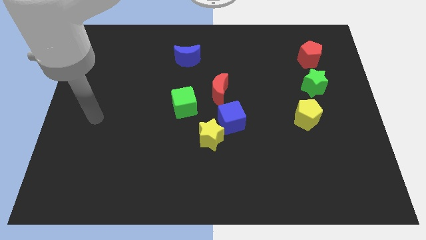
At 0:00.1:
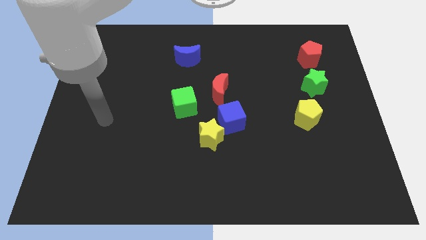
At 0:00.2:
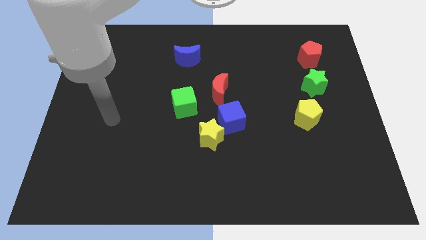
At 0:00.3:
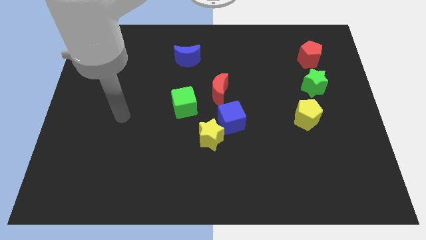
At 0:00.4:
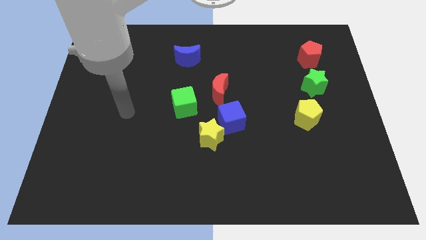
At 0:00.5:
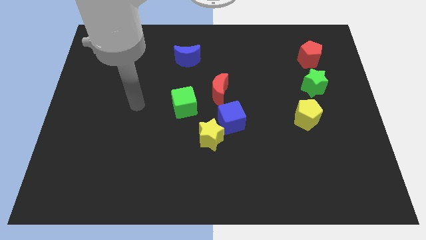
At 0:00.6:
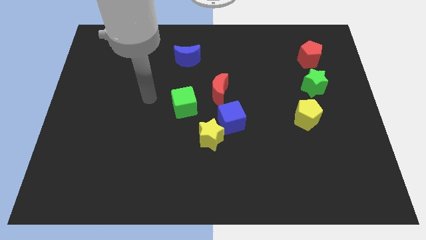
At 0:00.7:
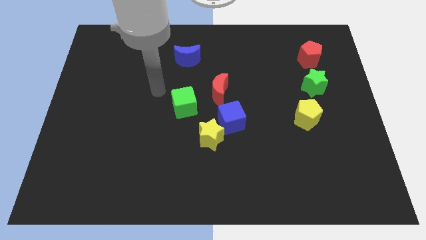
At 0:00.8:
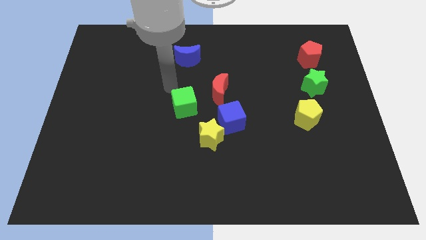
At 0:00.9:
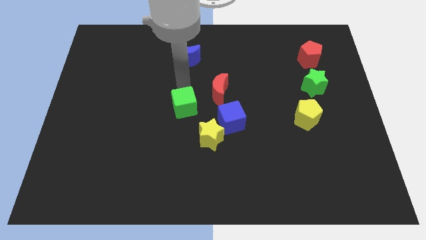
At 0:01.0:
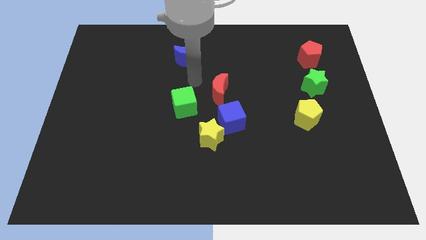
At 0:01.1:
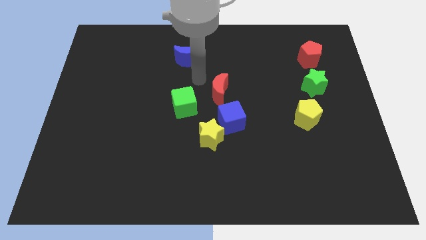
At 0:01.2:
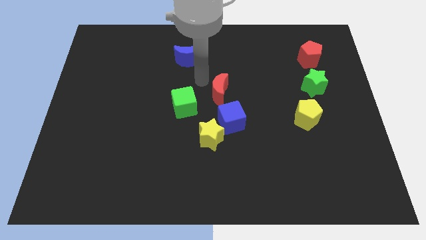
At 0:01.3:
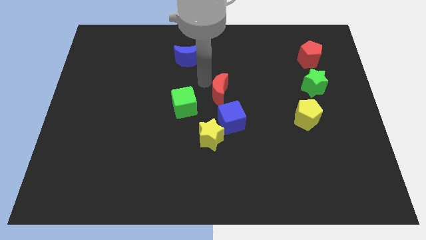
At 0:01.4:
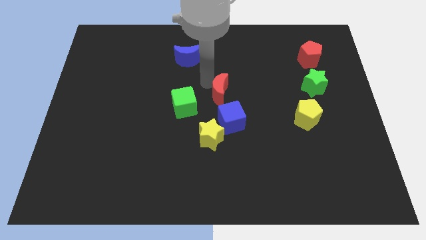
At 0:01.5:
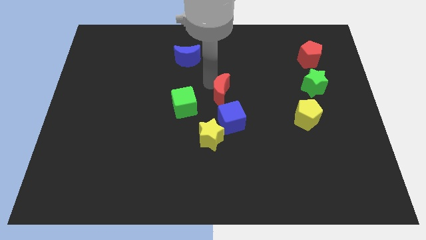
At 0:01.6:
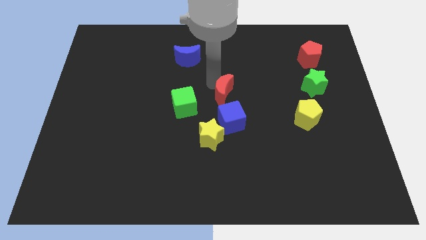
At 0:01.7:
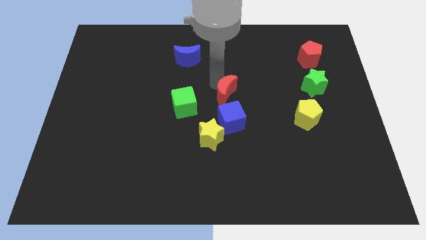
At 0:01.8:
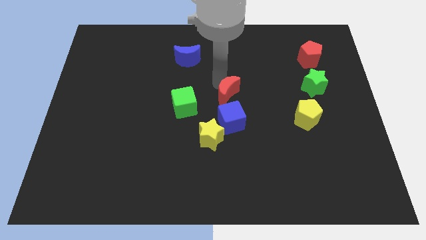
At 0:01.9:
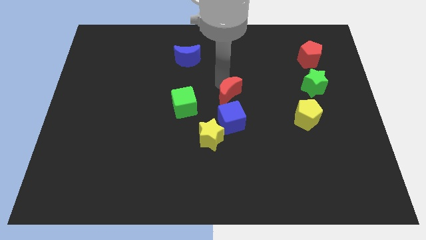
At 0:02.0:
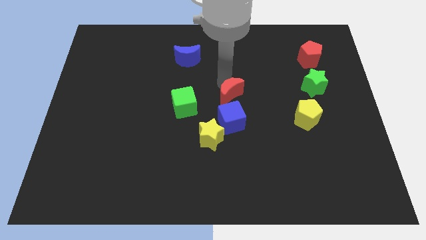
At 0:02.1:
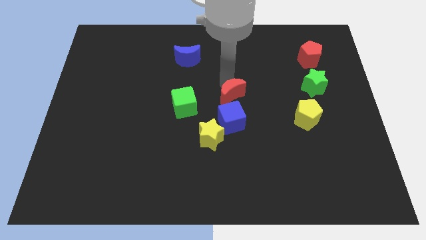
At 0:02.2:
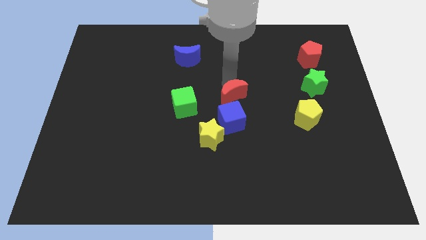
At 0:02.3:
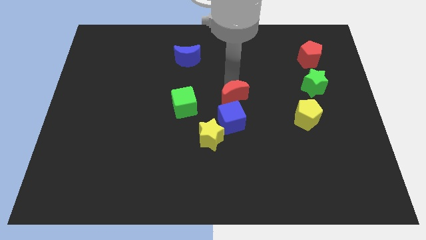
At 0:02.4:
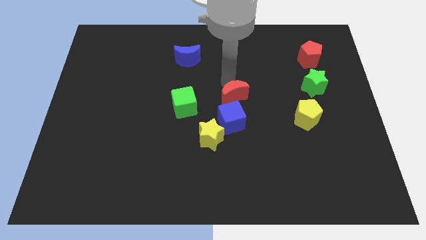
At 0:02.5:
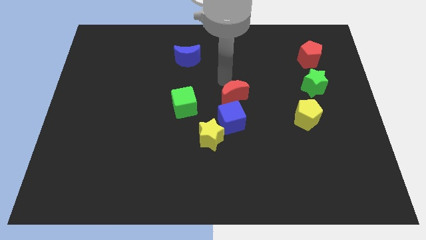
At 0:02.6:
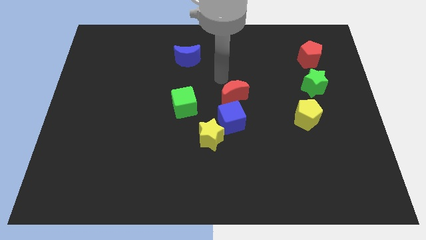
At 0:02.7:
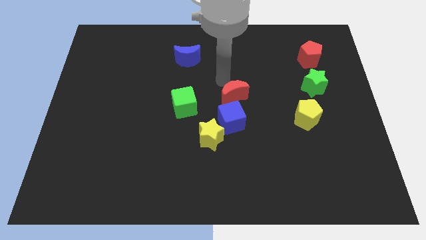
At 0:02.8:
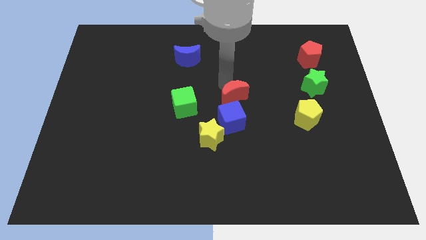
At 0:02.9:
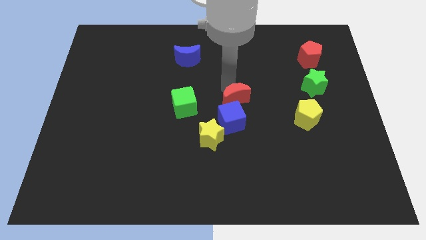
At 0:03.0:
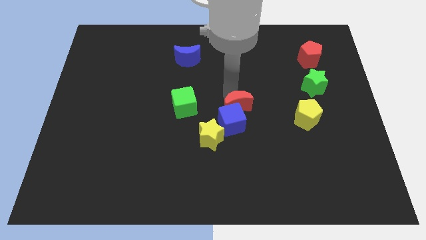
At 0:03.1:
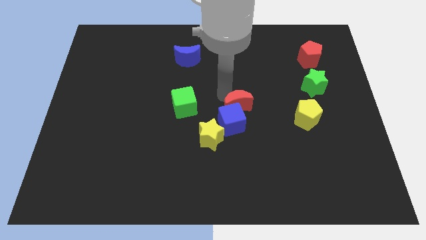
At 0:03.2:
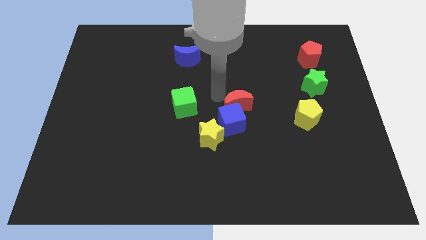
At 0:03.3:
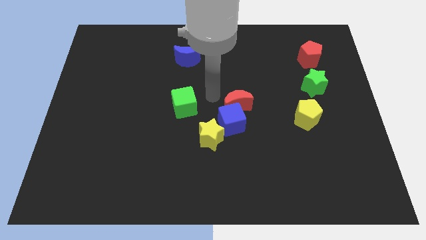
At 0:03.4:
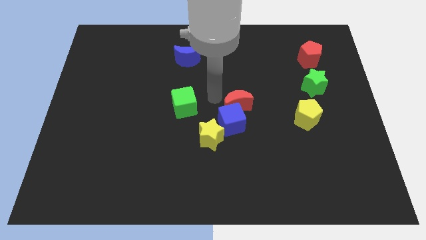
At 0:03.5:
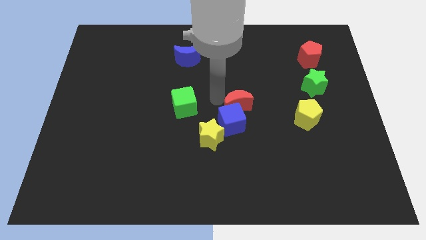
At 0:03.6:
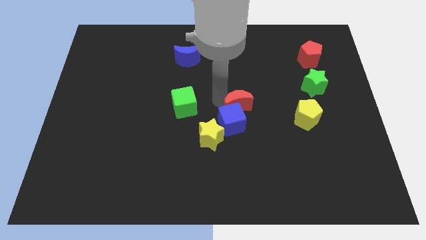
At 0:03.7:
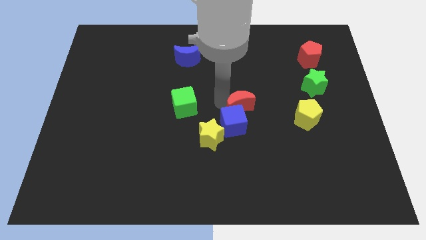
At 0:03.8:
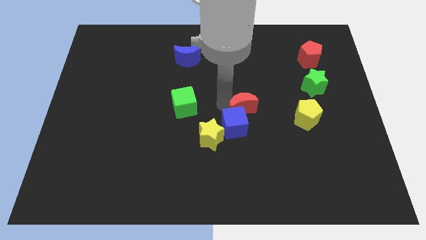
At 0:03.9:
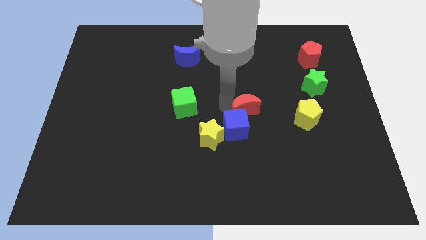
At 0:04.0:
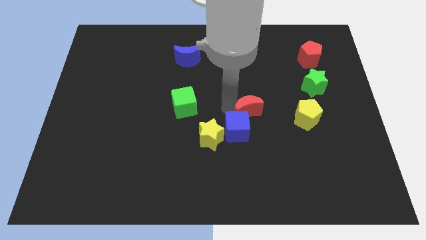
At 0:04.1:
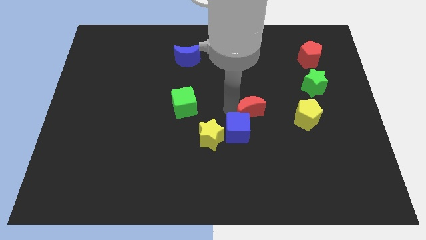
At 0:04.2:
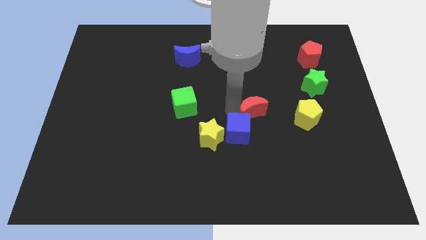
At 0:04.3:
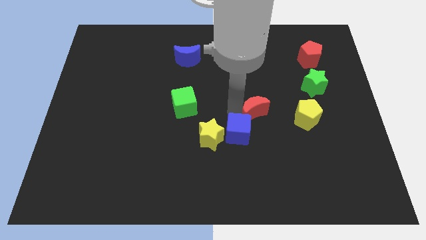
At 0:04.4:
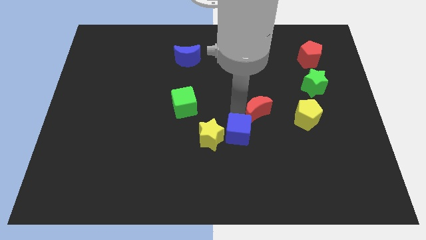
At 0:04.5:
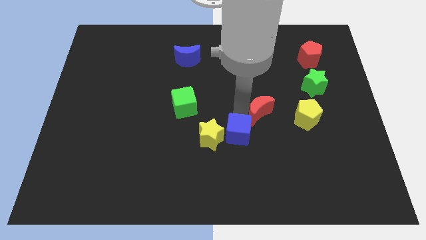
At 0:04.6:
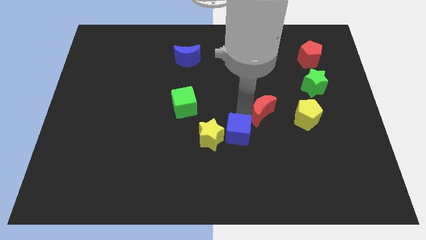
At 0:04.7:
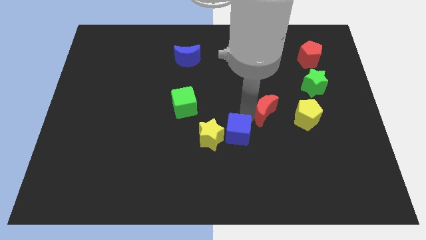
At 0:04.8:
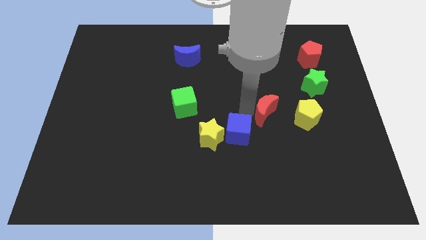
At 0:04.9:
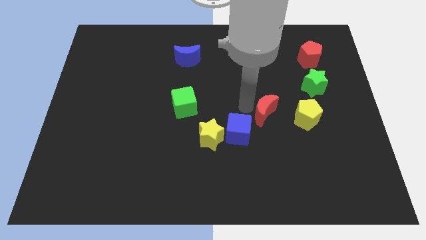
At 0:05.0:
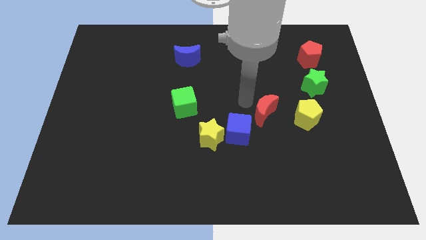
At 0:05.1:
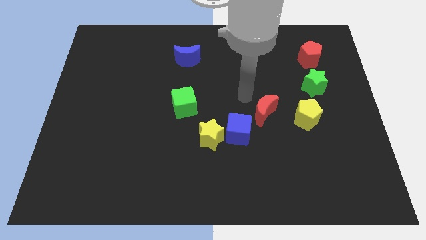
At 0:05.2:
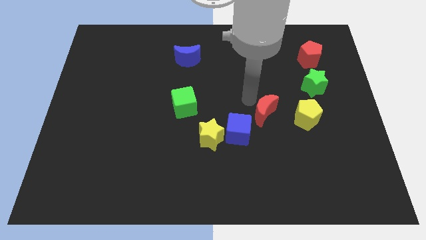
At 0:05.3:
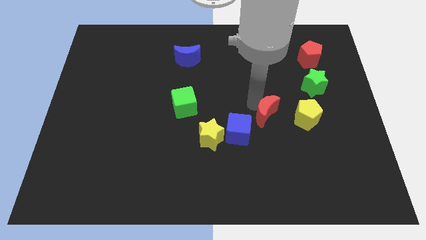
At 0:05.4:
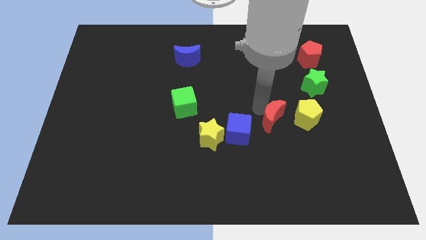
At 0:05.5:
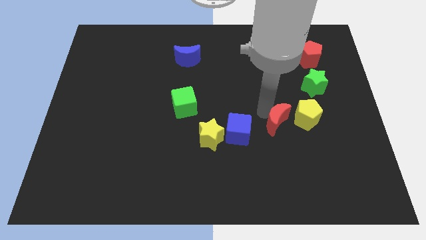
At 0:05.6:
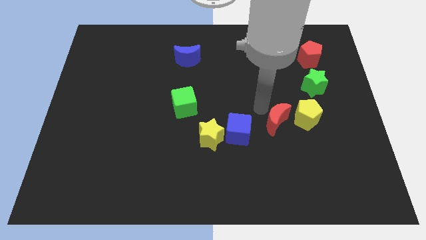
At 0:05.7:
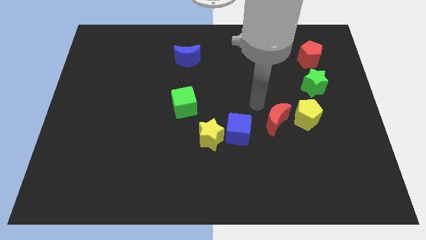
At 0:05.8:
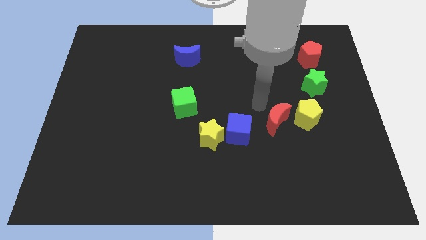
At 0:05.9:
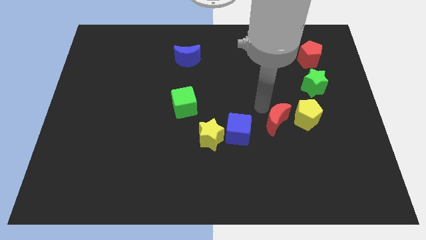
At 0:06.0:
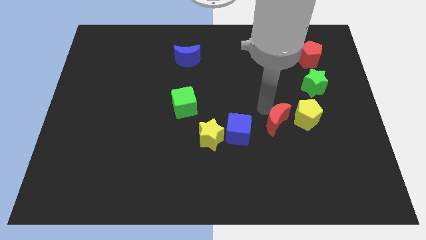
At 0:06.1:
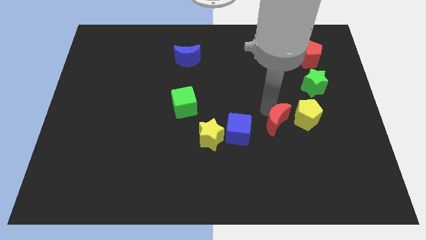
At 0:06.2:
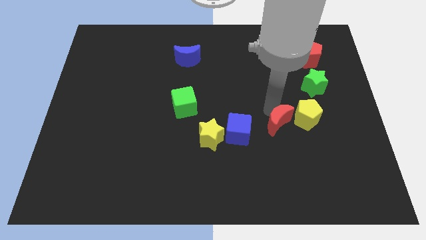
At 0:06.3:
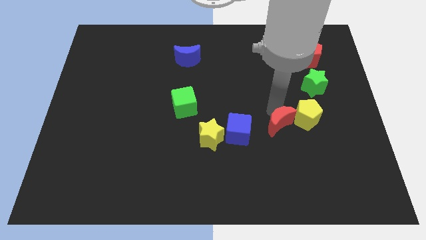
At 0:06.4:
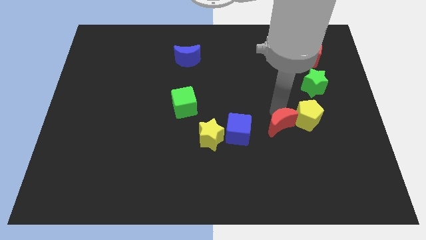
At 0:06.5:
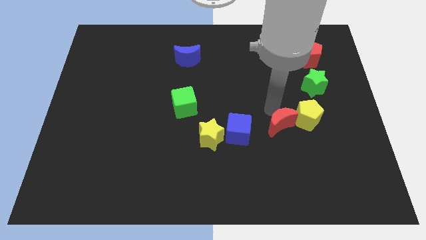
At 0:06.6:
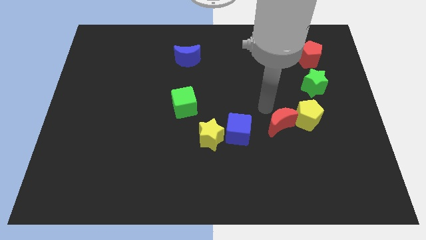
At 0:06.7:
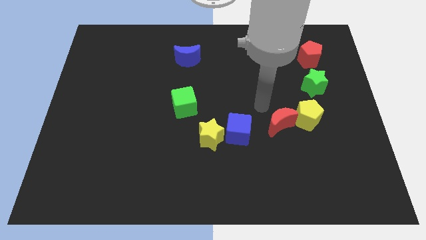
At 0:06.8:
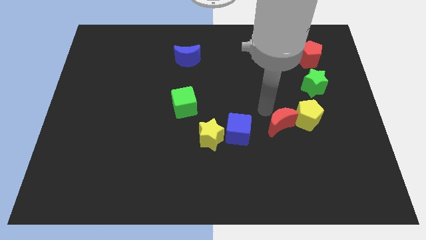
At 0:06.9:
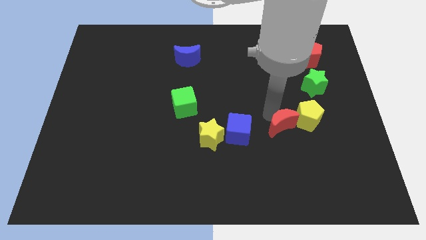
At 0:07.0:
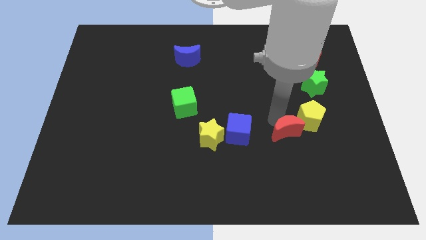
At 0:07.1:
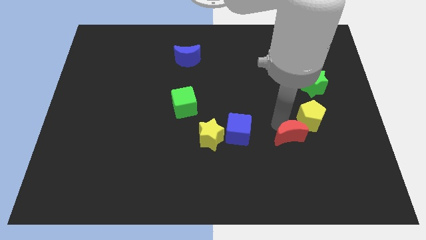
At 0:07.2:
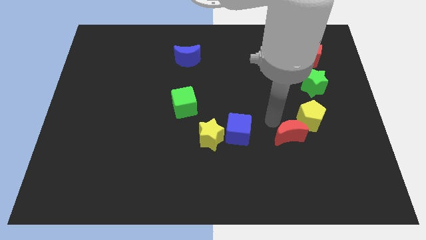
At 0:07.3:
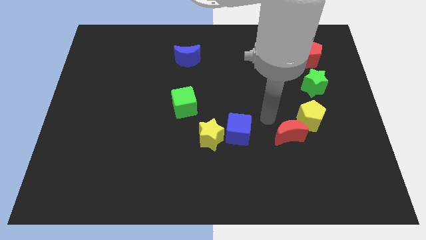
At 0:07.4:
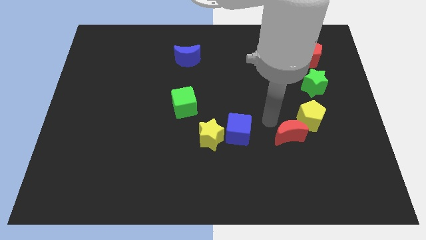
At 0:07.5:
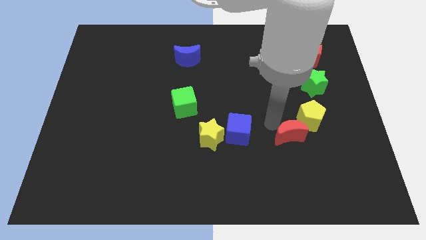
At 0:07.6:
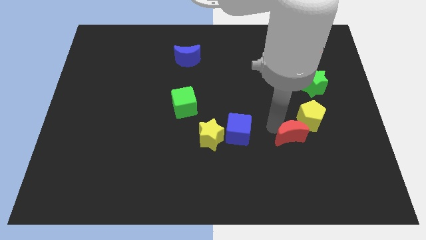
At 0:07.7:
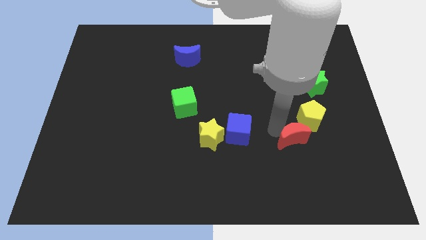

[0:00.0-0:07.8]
move the red moon to the bottom side of the yellow pentagon
